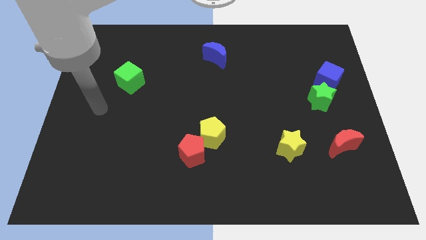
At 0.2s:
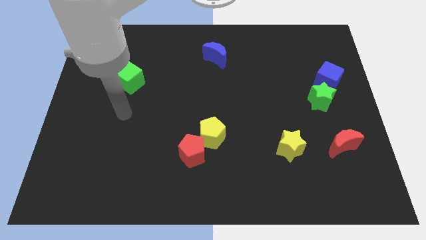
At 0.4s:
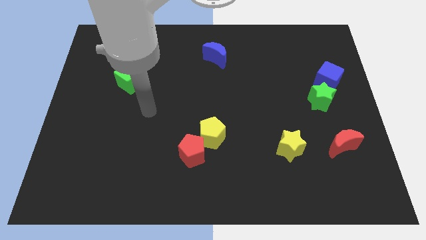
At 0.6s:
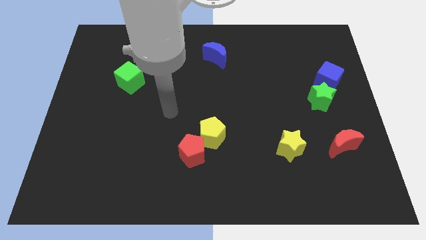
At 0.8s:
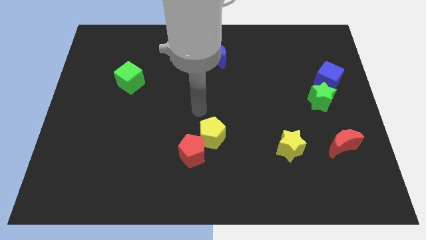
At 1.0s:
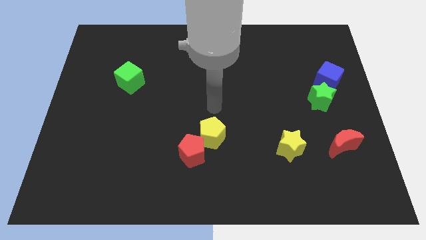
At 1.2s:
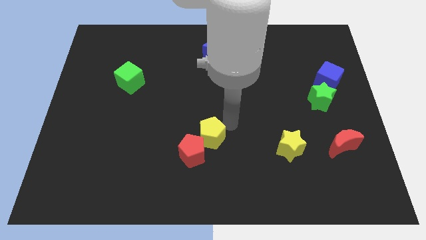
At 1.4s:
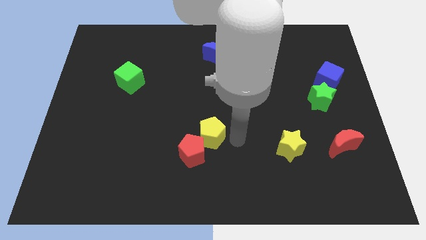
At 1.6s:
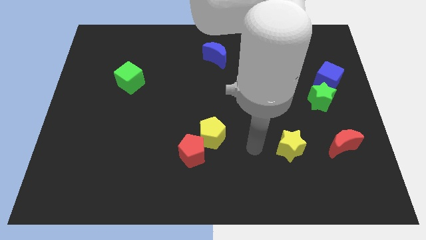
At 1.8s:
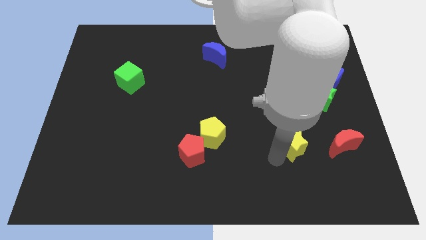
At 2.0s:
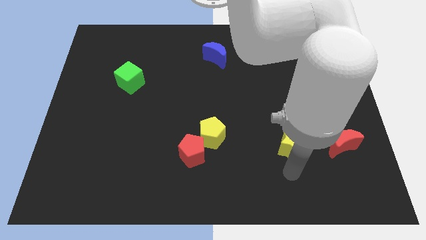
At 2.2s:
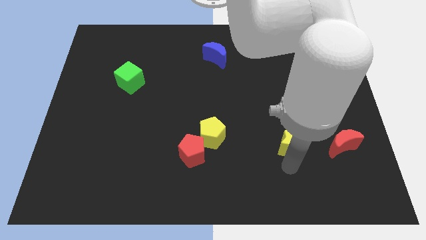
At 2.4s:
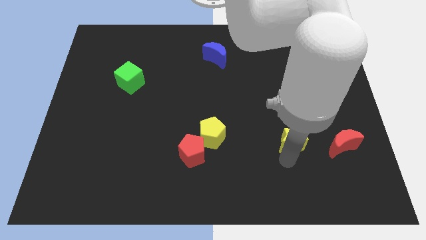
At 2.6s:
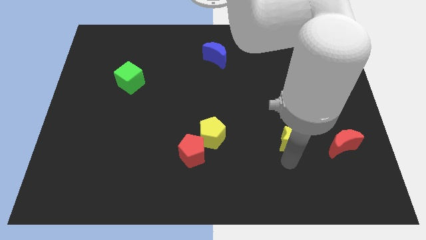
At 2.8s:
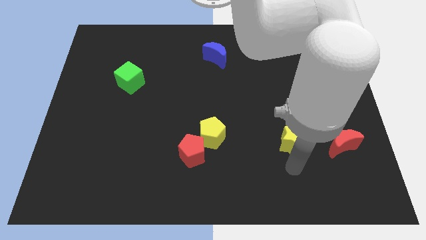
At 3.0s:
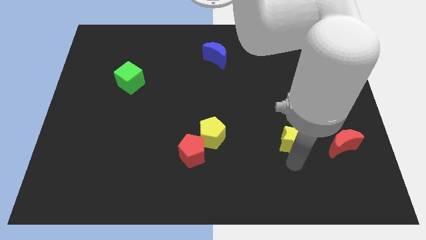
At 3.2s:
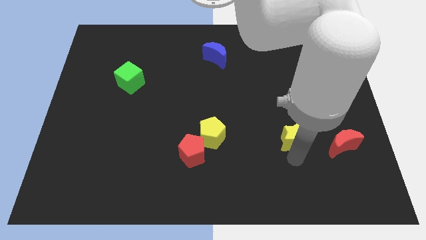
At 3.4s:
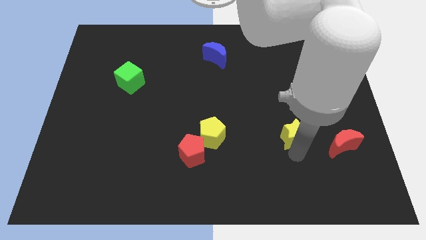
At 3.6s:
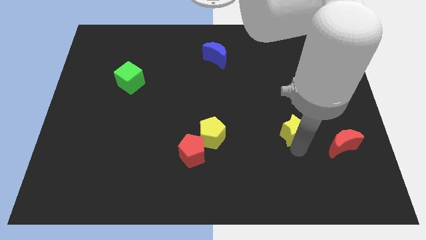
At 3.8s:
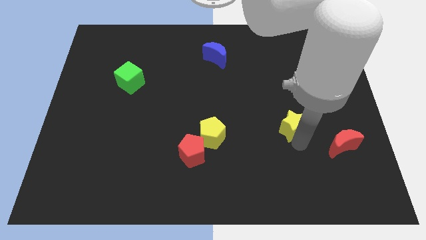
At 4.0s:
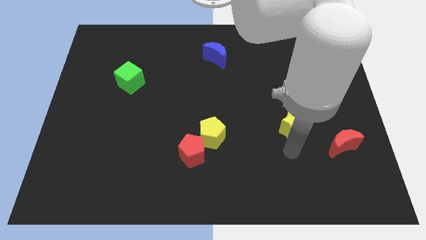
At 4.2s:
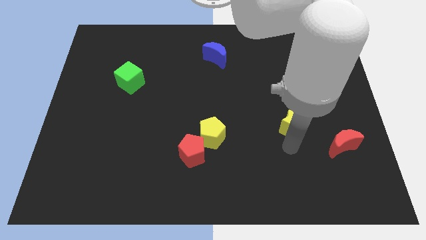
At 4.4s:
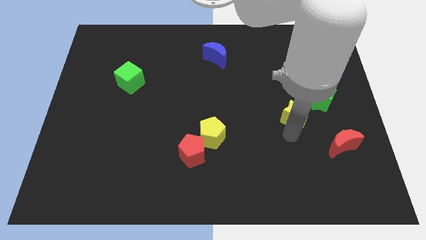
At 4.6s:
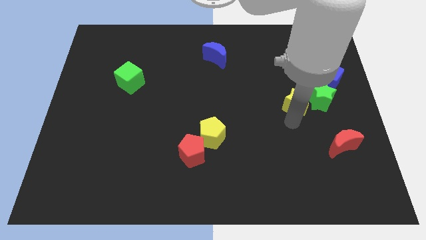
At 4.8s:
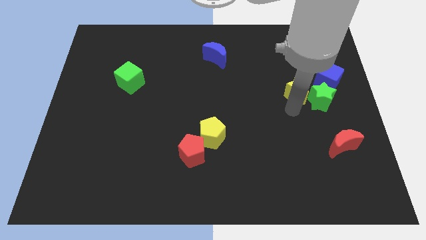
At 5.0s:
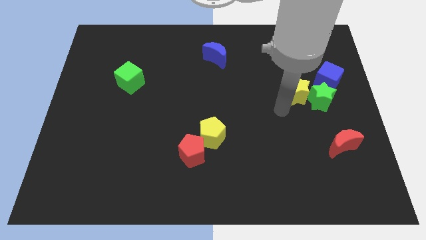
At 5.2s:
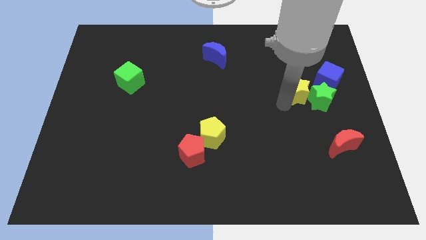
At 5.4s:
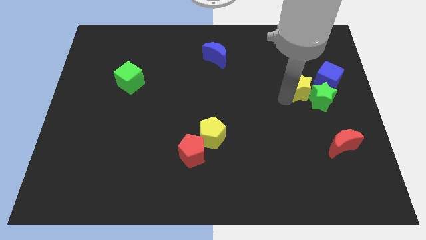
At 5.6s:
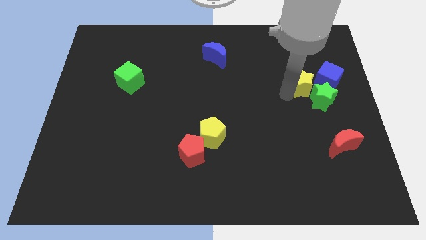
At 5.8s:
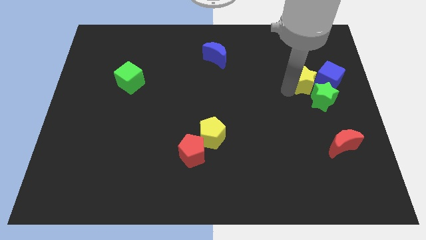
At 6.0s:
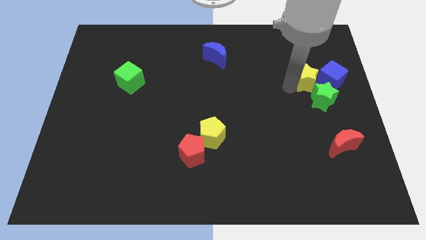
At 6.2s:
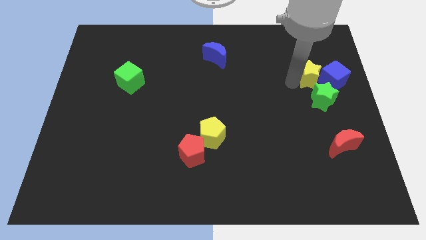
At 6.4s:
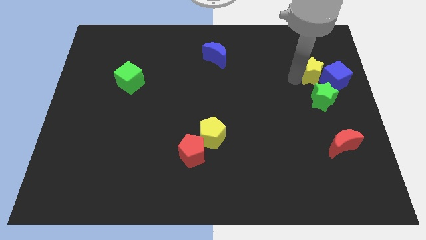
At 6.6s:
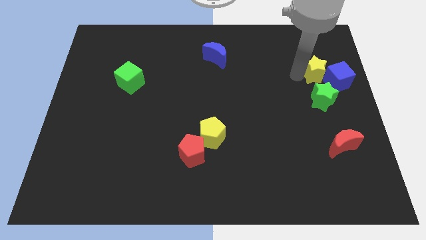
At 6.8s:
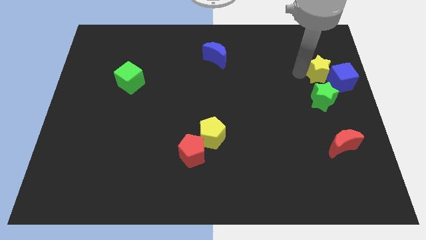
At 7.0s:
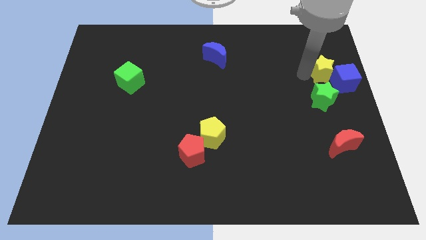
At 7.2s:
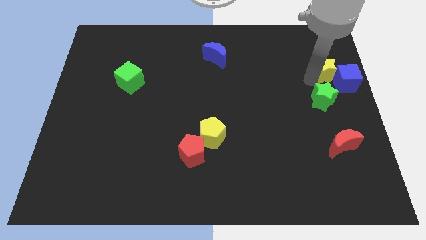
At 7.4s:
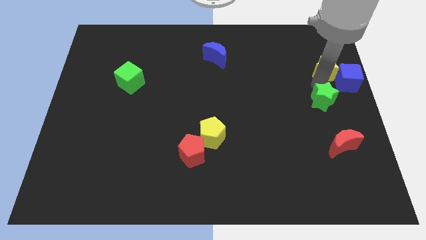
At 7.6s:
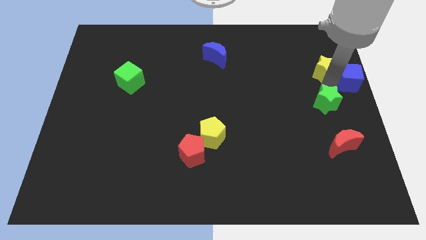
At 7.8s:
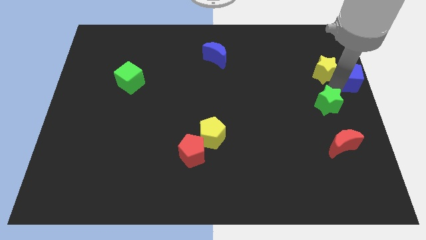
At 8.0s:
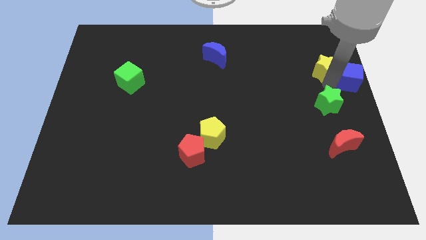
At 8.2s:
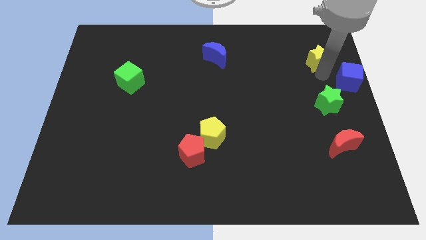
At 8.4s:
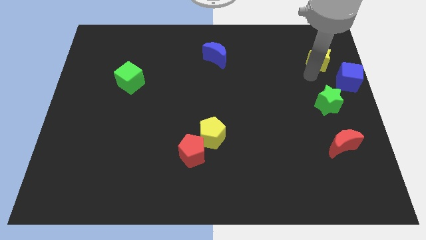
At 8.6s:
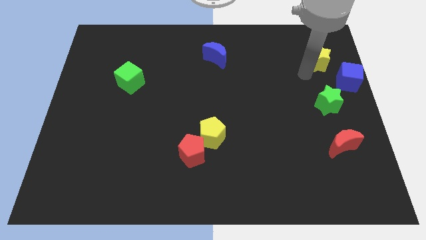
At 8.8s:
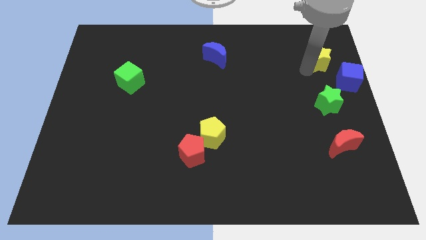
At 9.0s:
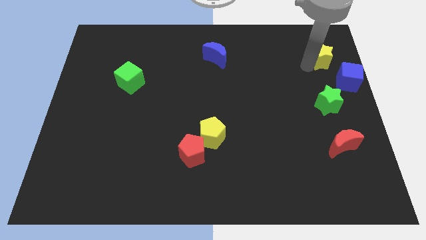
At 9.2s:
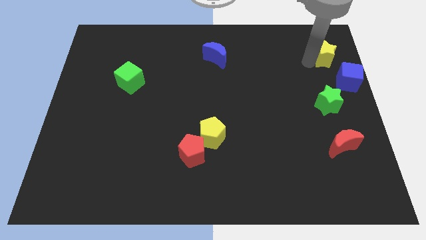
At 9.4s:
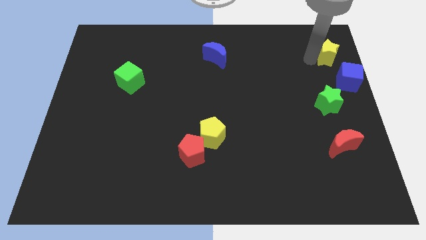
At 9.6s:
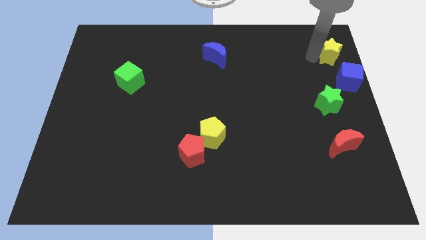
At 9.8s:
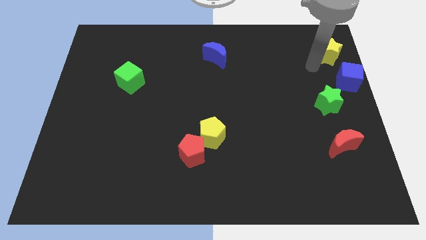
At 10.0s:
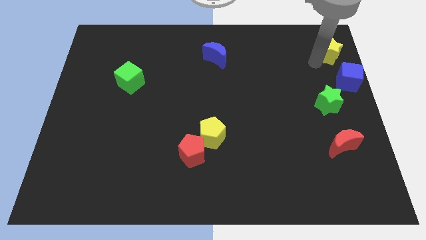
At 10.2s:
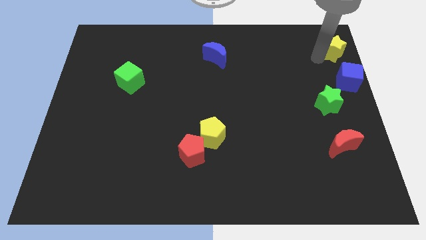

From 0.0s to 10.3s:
put the yellow star to the top right of the board

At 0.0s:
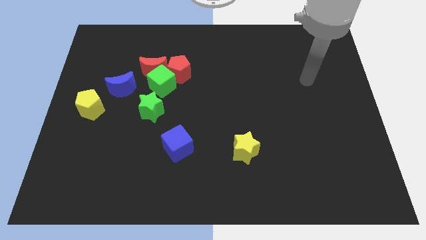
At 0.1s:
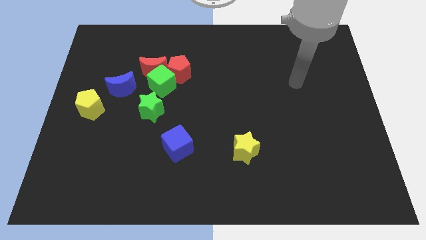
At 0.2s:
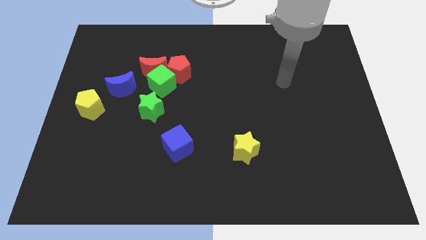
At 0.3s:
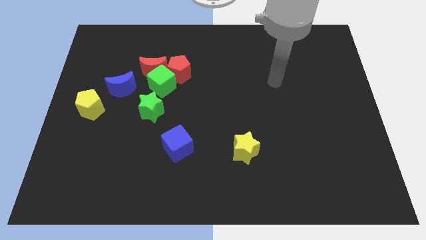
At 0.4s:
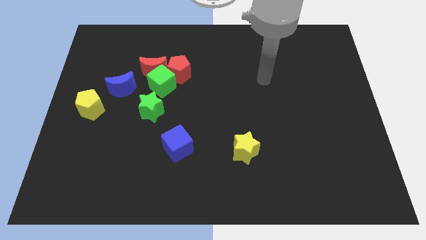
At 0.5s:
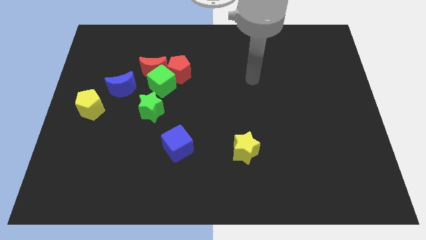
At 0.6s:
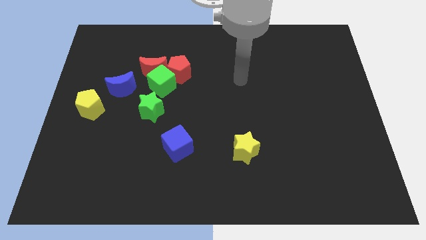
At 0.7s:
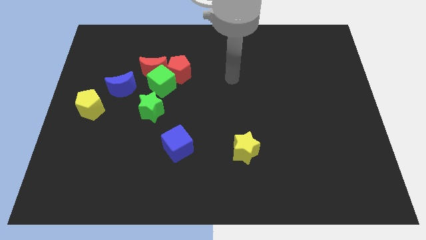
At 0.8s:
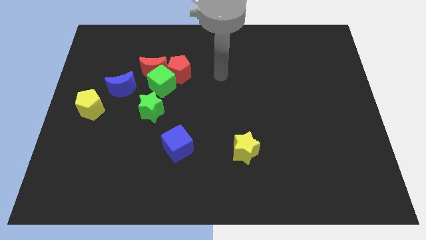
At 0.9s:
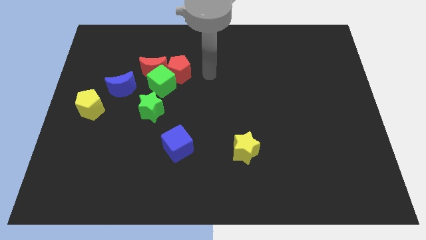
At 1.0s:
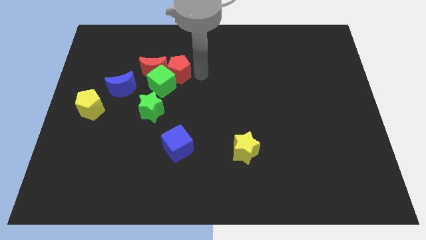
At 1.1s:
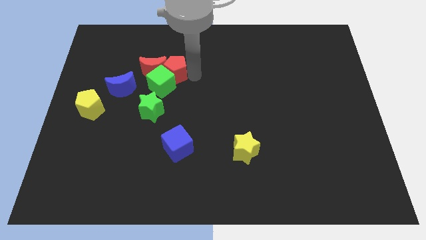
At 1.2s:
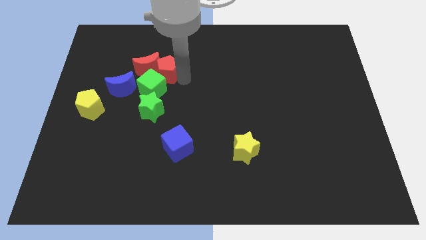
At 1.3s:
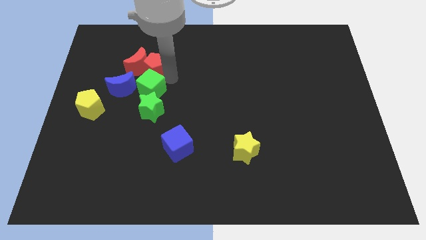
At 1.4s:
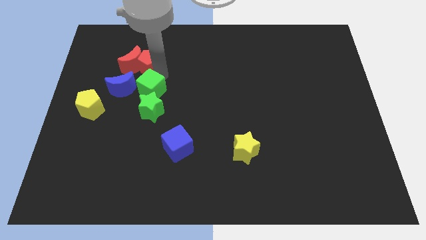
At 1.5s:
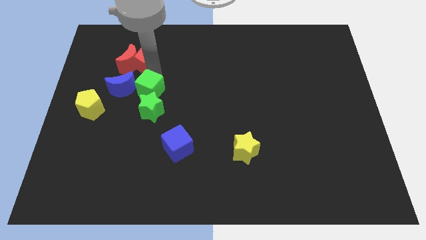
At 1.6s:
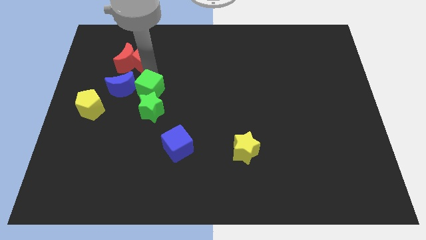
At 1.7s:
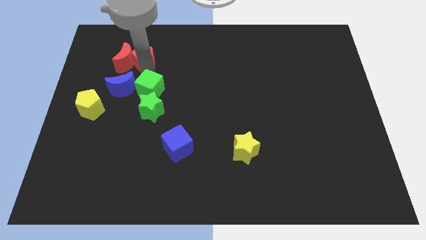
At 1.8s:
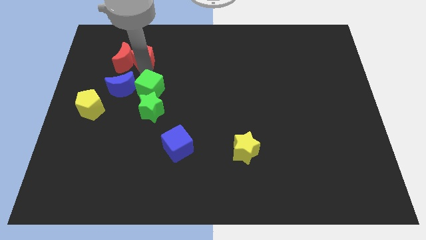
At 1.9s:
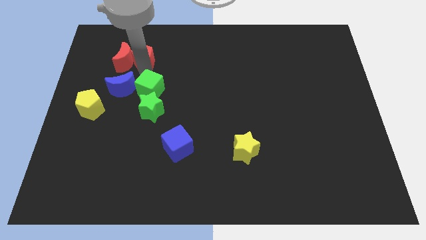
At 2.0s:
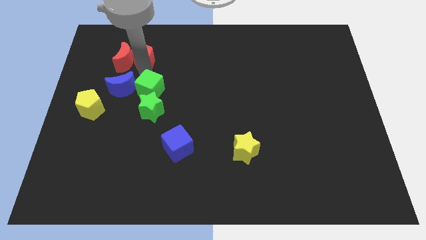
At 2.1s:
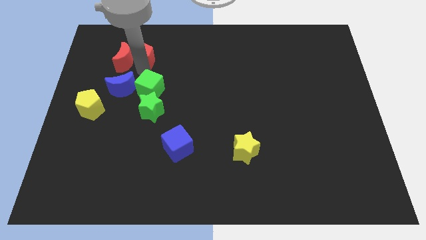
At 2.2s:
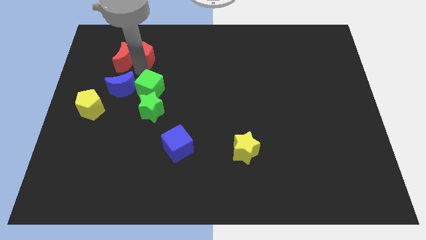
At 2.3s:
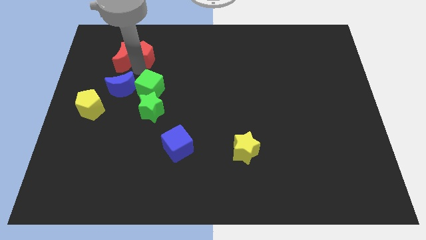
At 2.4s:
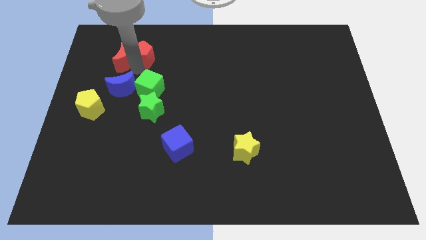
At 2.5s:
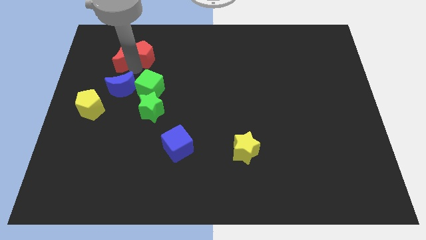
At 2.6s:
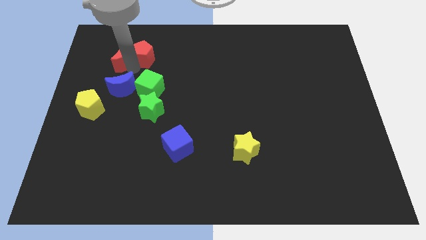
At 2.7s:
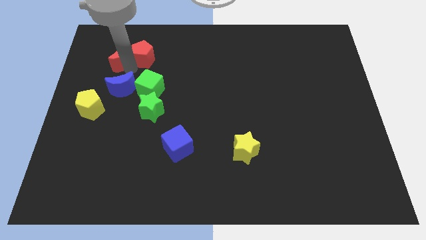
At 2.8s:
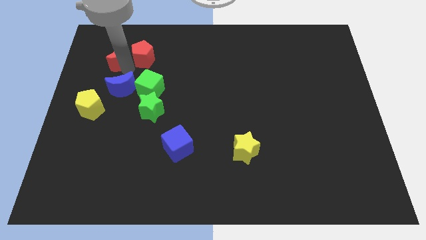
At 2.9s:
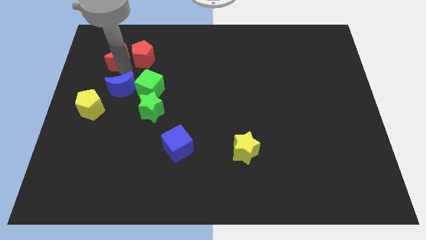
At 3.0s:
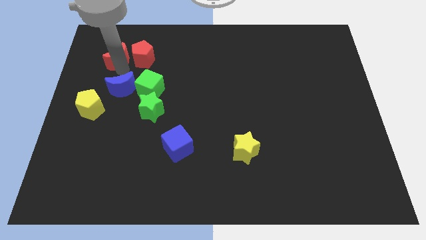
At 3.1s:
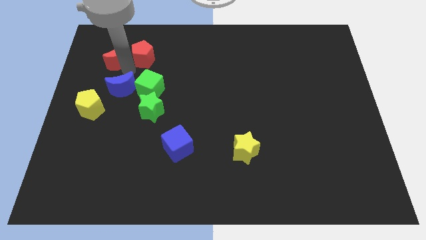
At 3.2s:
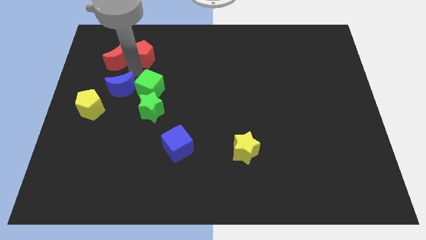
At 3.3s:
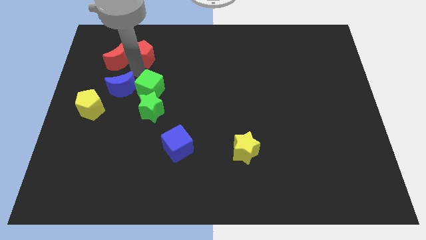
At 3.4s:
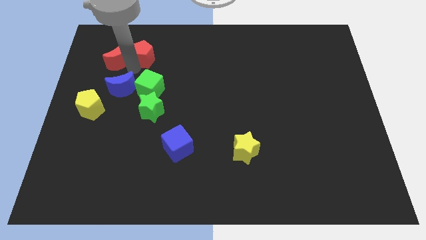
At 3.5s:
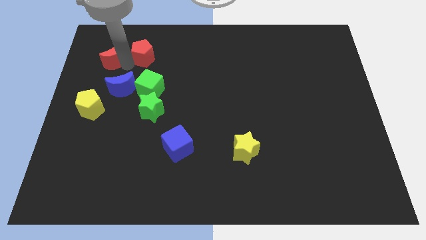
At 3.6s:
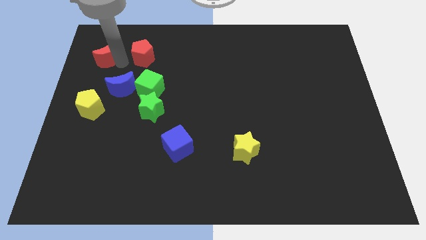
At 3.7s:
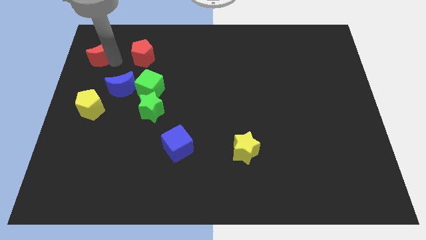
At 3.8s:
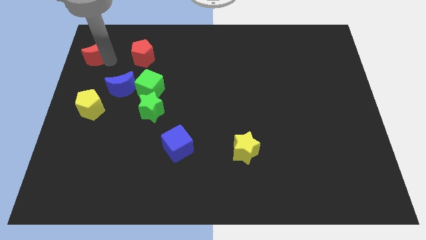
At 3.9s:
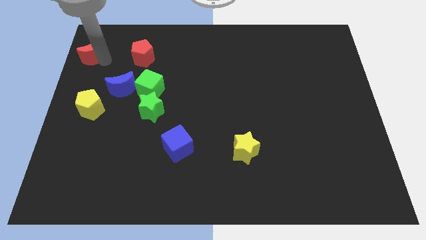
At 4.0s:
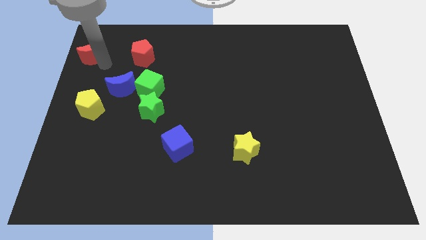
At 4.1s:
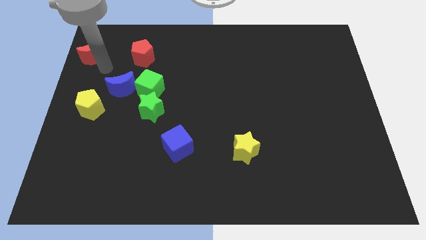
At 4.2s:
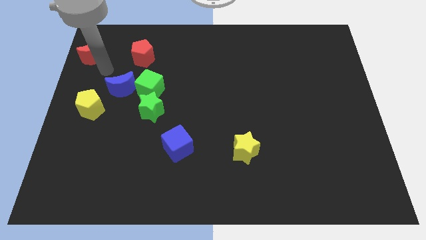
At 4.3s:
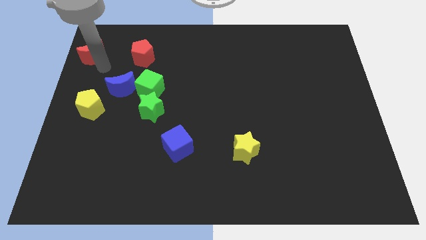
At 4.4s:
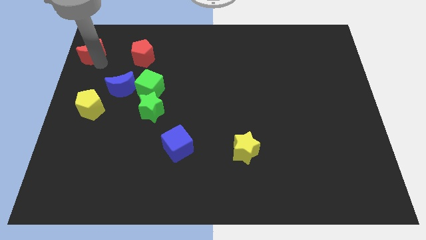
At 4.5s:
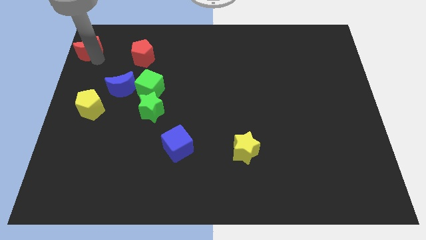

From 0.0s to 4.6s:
put the red moon to the top left corner
